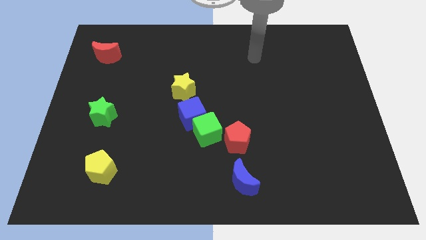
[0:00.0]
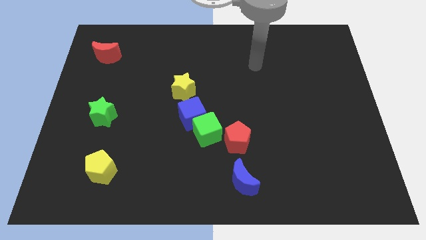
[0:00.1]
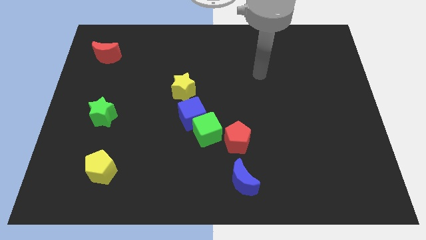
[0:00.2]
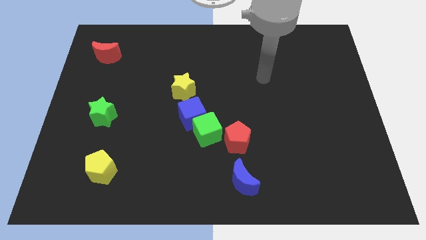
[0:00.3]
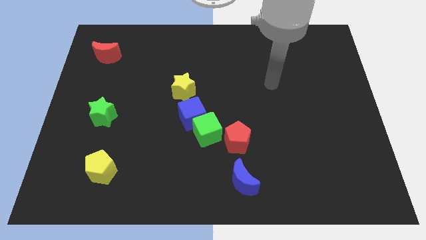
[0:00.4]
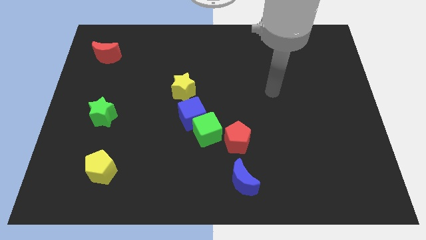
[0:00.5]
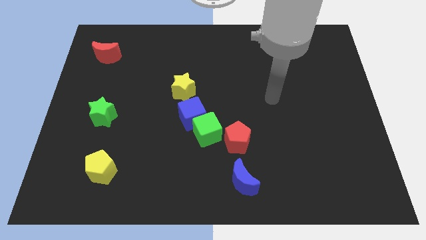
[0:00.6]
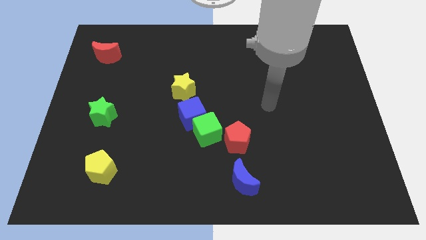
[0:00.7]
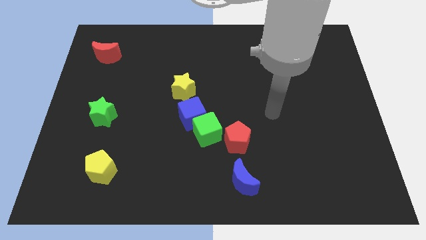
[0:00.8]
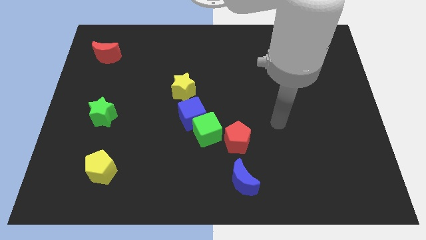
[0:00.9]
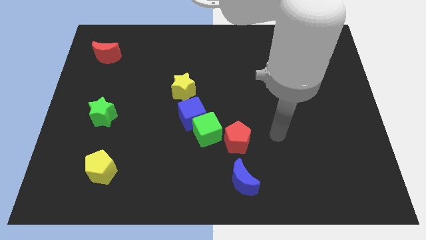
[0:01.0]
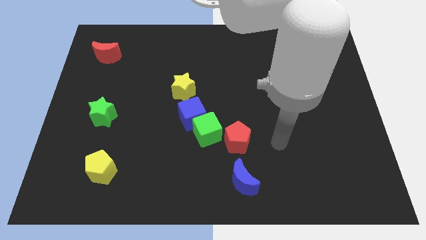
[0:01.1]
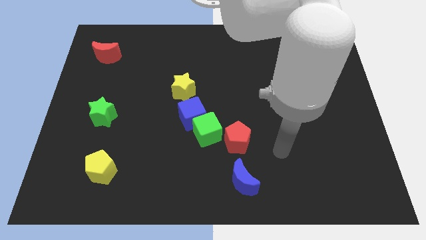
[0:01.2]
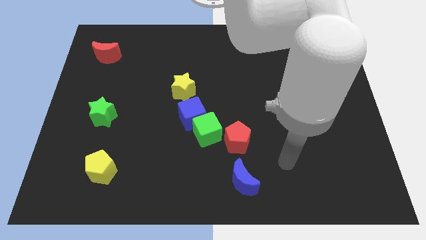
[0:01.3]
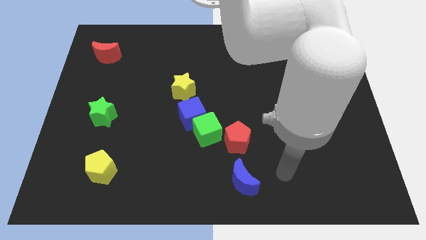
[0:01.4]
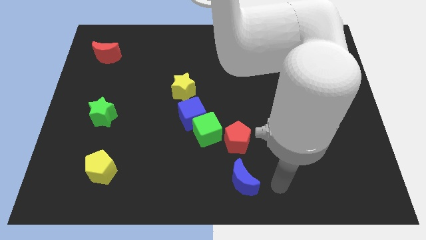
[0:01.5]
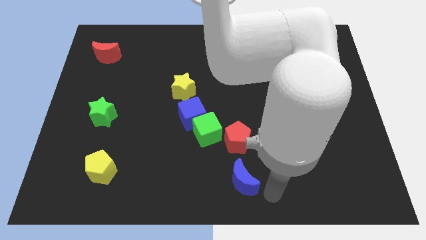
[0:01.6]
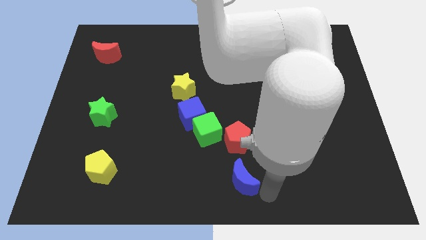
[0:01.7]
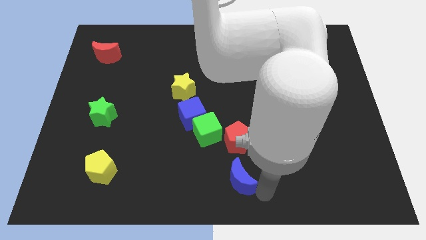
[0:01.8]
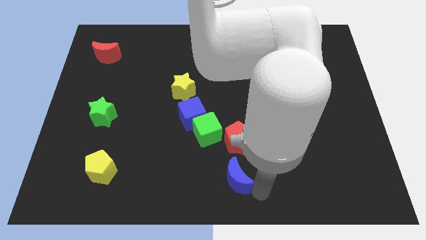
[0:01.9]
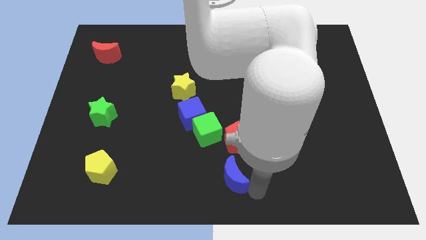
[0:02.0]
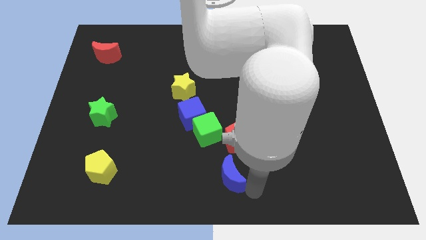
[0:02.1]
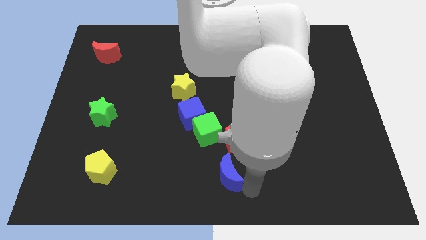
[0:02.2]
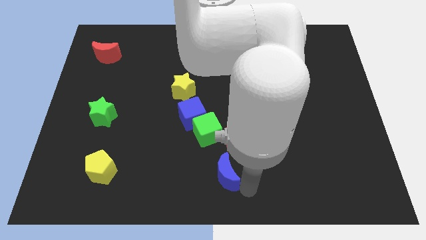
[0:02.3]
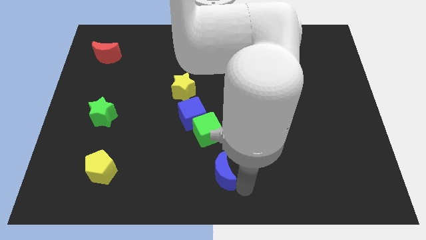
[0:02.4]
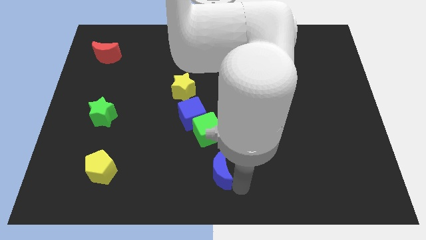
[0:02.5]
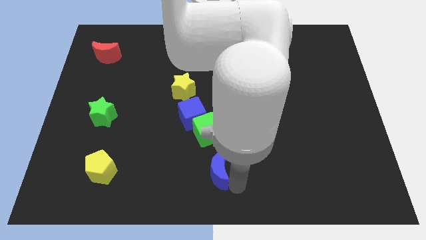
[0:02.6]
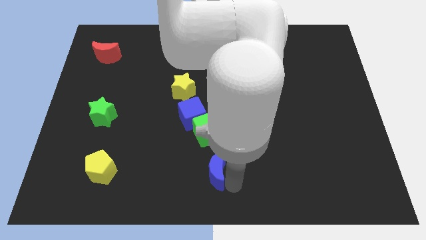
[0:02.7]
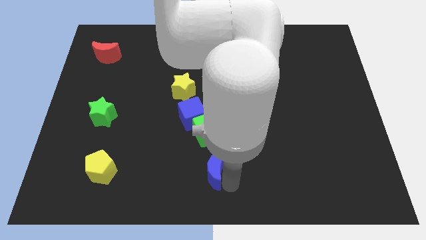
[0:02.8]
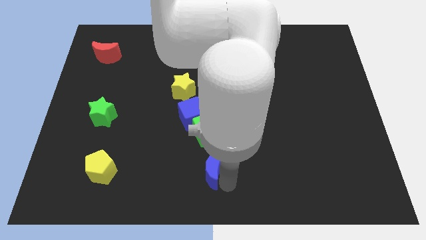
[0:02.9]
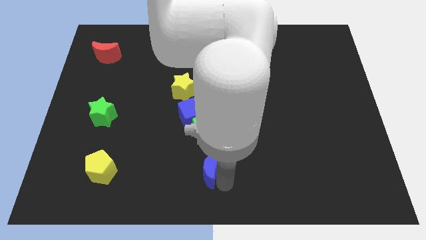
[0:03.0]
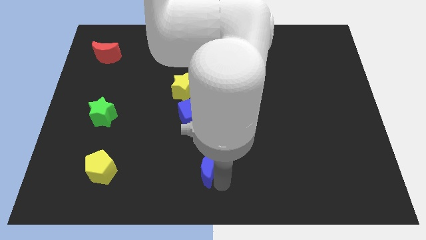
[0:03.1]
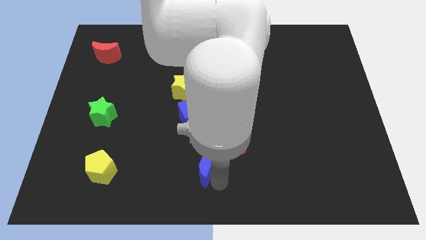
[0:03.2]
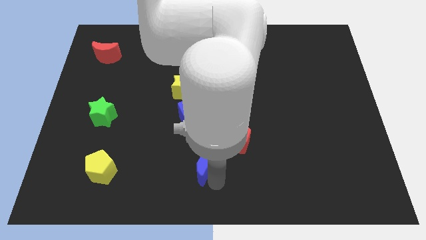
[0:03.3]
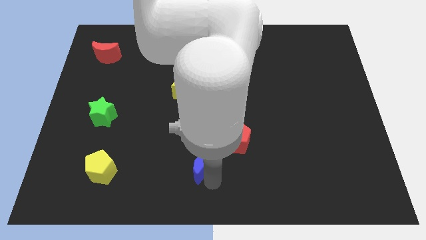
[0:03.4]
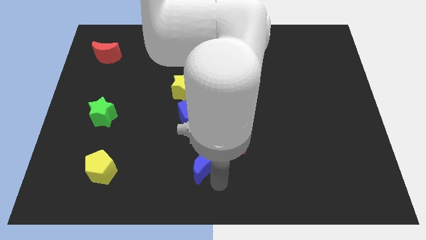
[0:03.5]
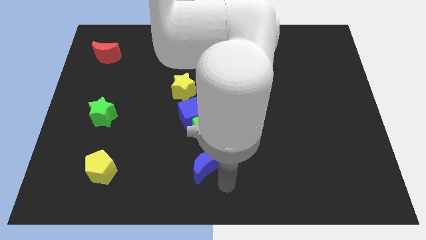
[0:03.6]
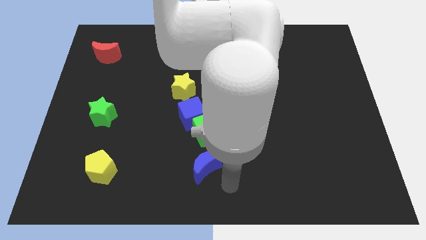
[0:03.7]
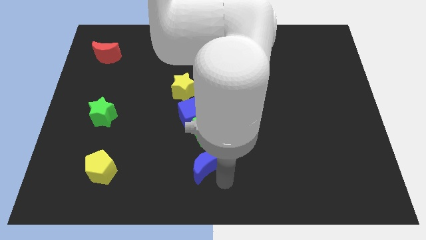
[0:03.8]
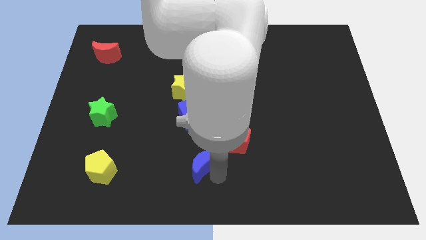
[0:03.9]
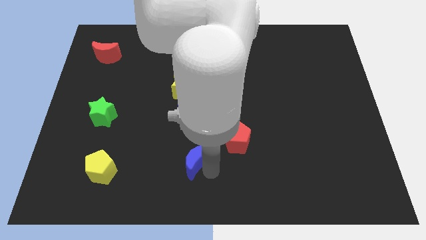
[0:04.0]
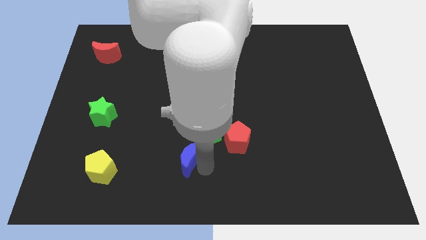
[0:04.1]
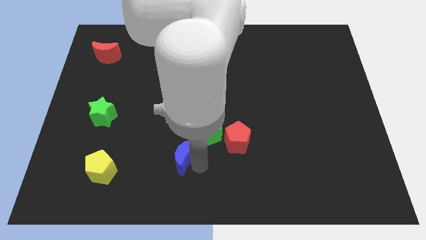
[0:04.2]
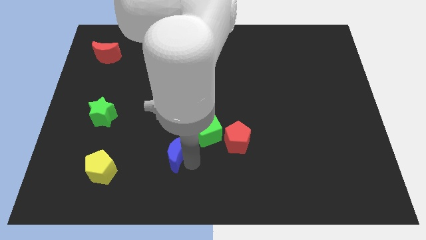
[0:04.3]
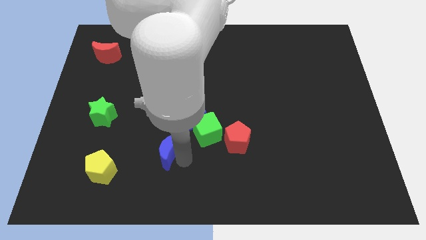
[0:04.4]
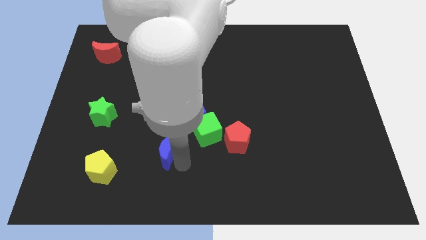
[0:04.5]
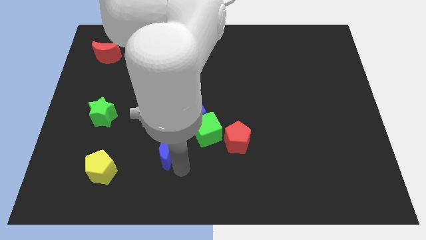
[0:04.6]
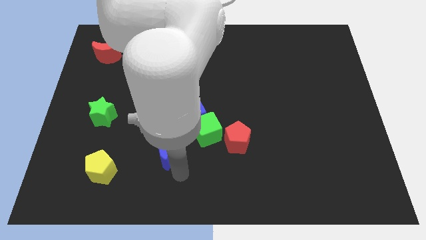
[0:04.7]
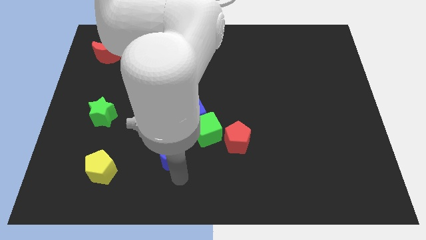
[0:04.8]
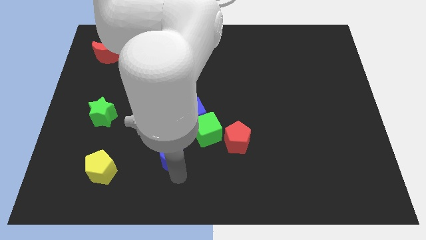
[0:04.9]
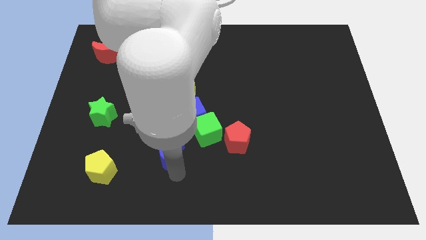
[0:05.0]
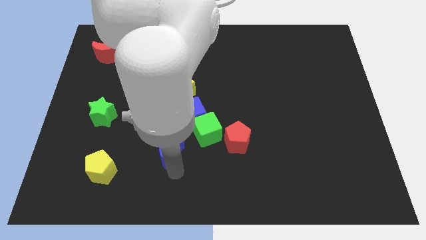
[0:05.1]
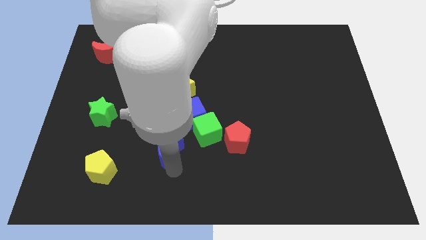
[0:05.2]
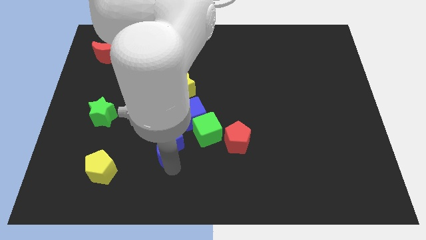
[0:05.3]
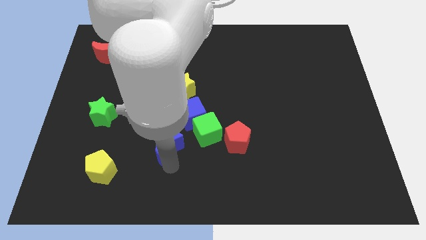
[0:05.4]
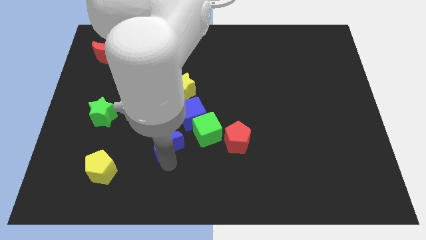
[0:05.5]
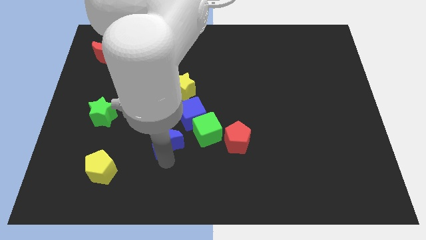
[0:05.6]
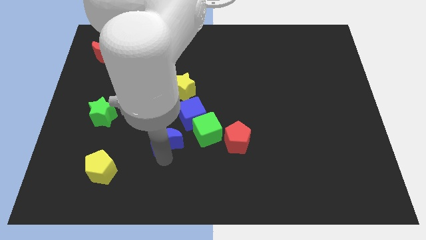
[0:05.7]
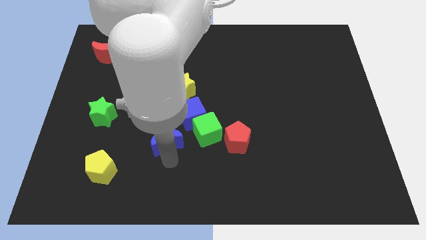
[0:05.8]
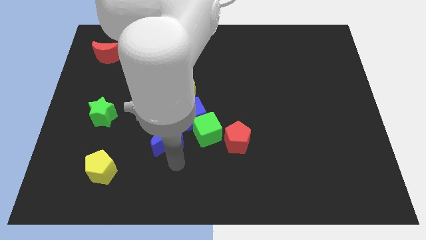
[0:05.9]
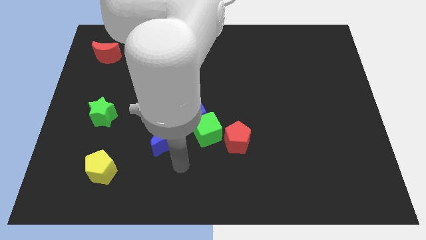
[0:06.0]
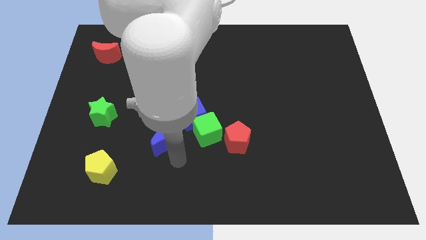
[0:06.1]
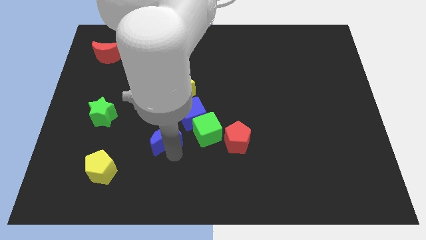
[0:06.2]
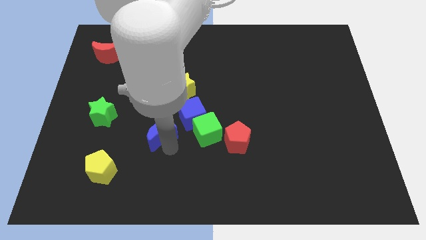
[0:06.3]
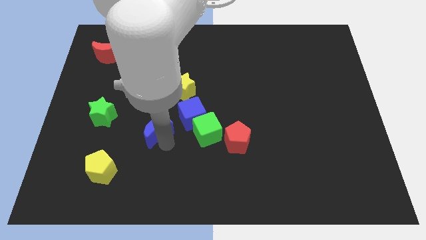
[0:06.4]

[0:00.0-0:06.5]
slide the blue moon up and to the left

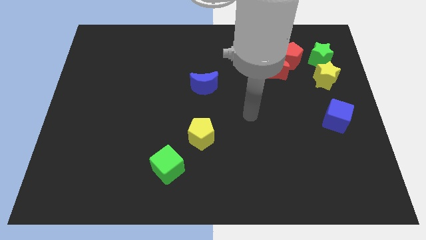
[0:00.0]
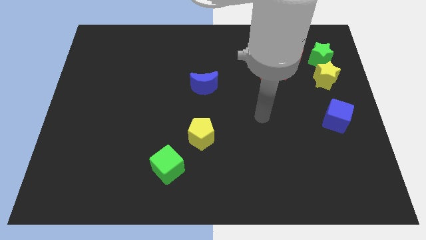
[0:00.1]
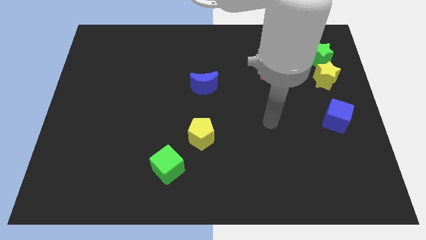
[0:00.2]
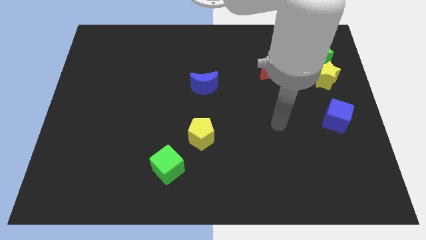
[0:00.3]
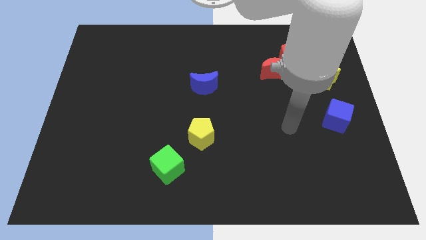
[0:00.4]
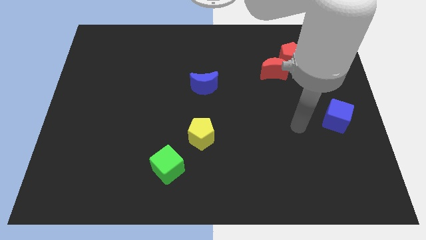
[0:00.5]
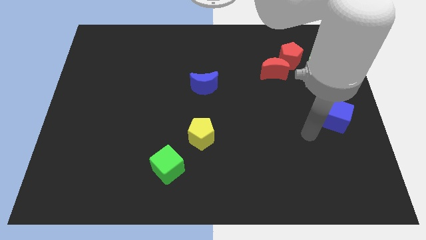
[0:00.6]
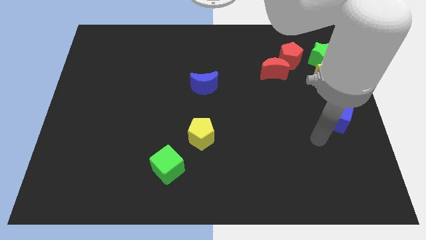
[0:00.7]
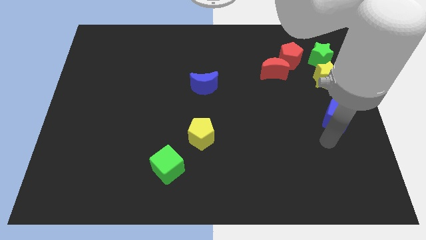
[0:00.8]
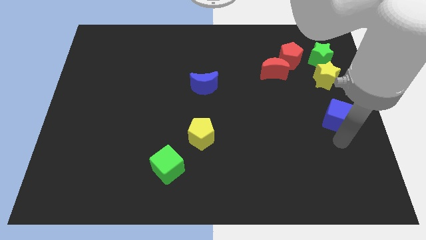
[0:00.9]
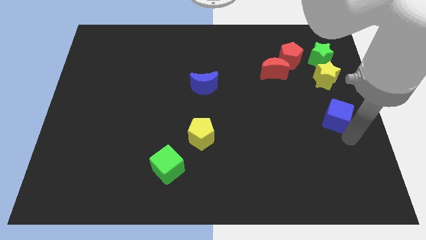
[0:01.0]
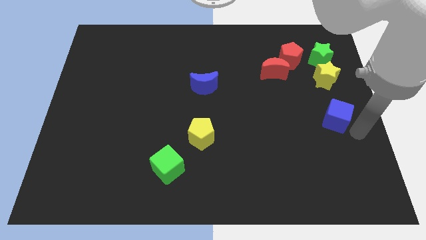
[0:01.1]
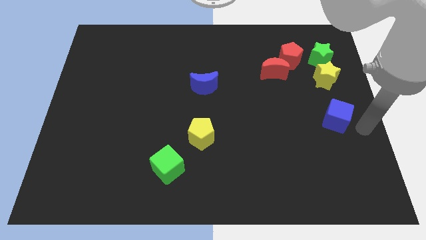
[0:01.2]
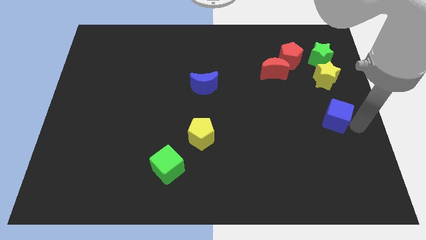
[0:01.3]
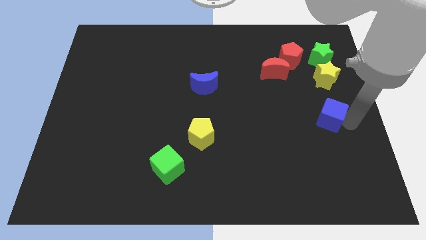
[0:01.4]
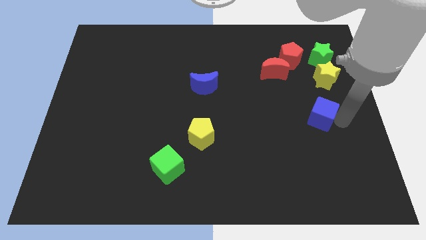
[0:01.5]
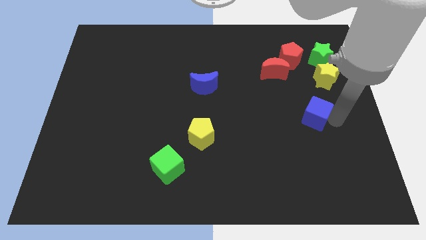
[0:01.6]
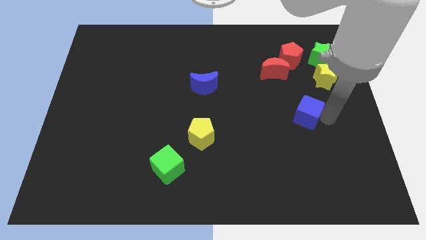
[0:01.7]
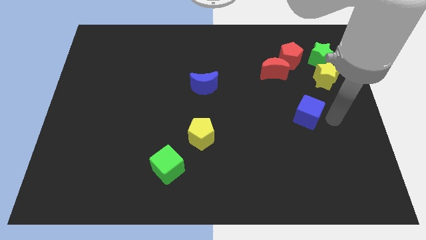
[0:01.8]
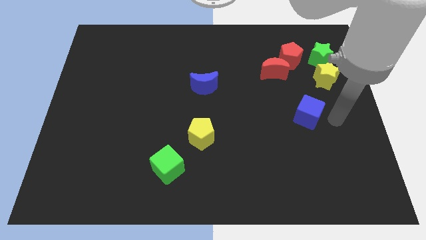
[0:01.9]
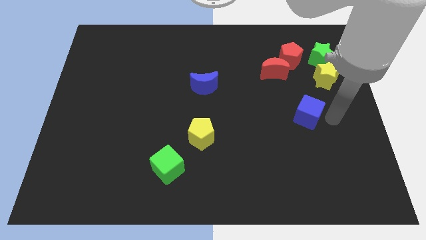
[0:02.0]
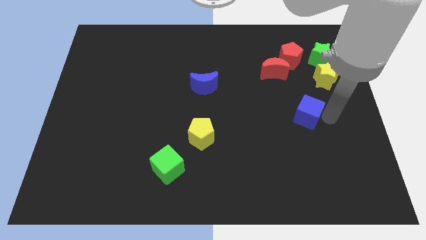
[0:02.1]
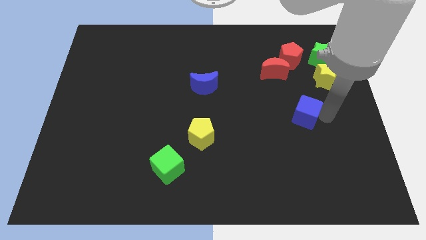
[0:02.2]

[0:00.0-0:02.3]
slightly push the blue cube to the left
